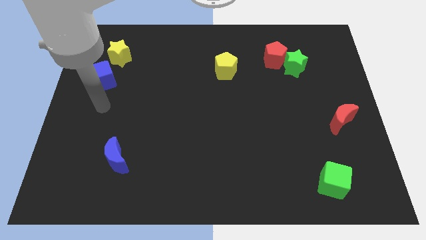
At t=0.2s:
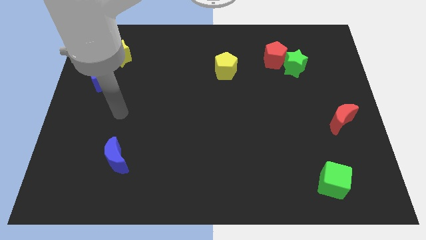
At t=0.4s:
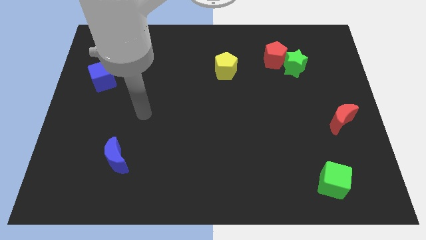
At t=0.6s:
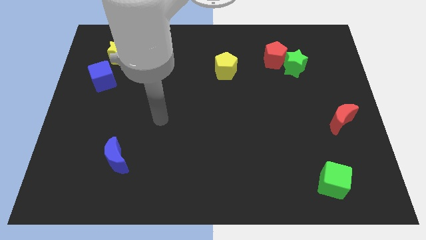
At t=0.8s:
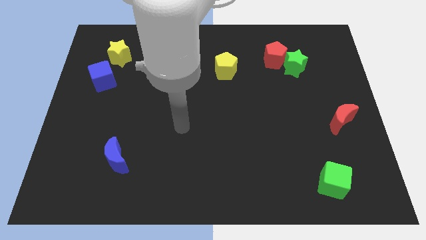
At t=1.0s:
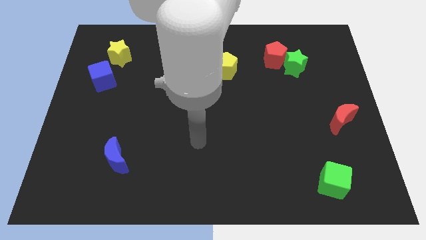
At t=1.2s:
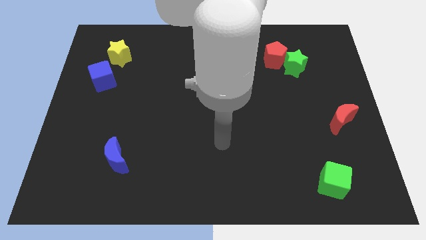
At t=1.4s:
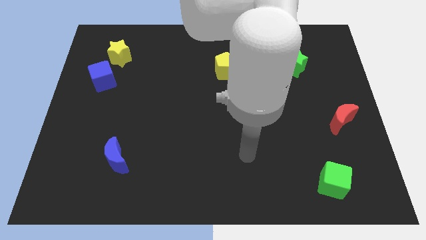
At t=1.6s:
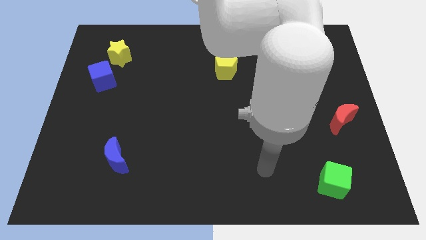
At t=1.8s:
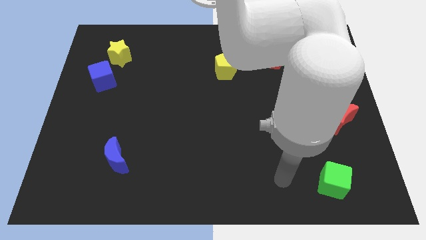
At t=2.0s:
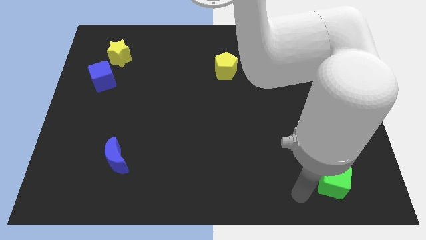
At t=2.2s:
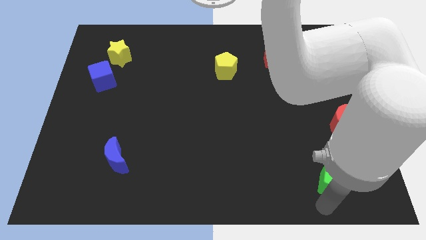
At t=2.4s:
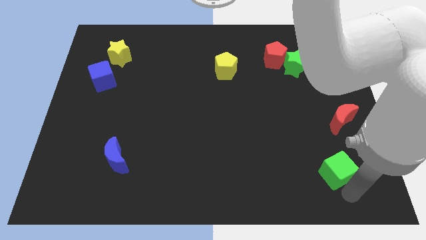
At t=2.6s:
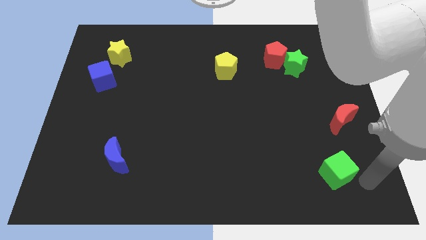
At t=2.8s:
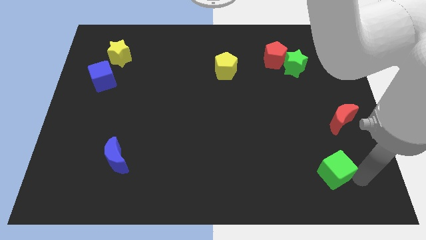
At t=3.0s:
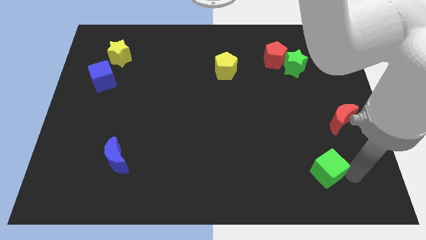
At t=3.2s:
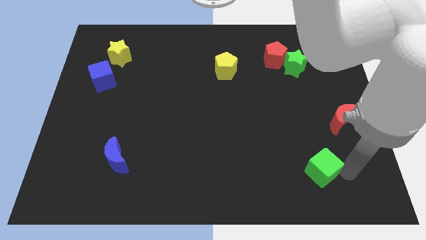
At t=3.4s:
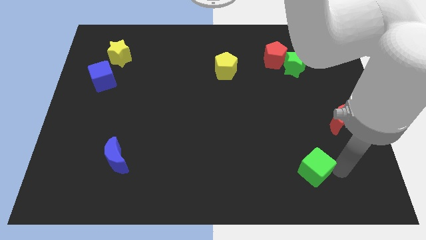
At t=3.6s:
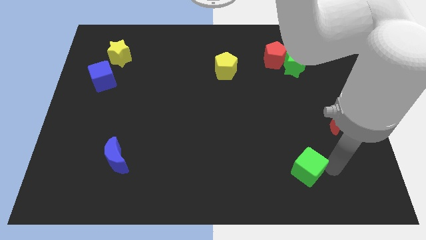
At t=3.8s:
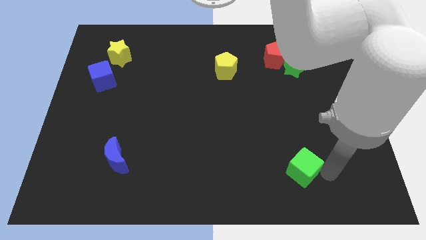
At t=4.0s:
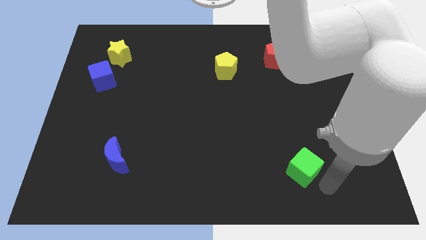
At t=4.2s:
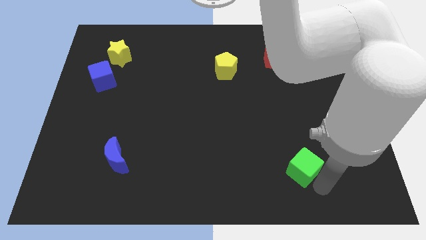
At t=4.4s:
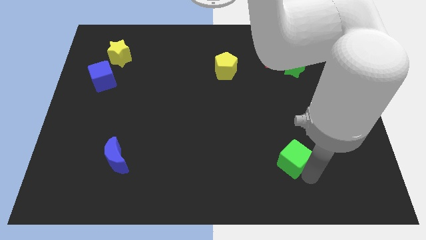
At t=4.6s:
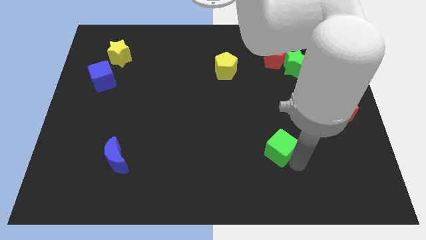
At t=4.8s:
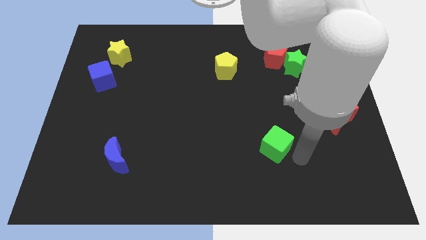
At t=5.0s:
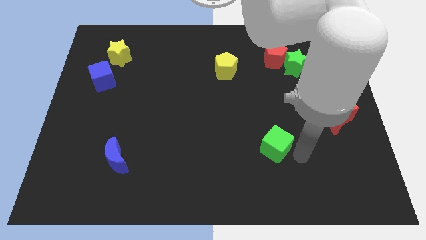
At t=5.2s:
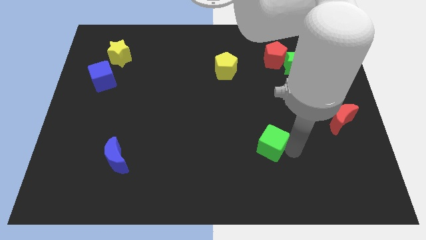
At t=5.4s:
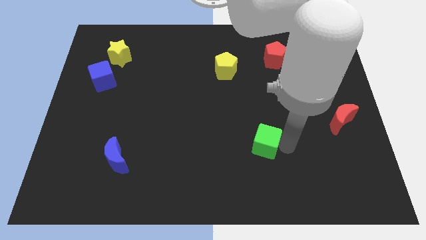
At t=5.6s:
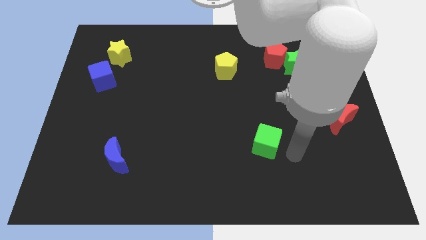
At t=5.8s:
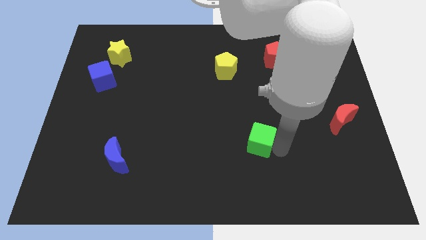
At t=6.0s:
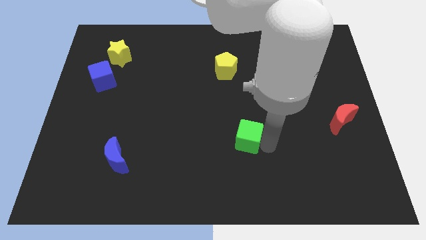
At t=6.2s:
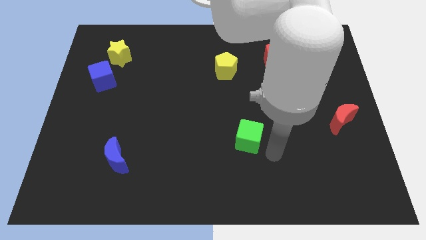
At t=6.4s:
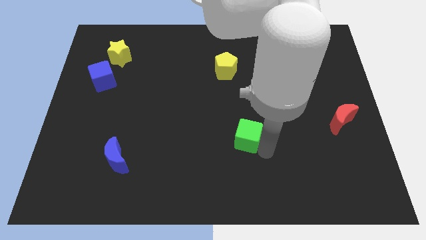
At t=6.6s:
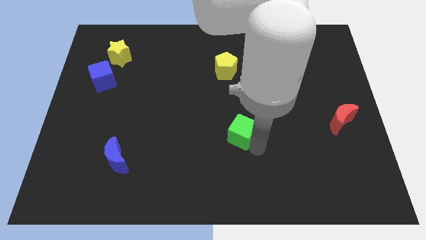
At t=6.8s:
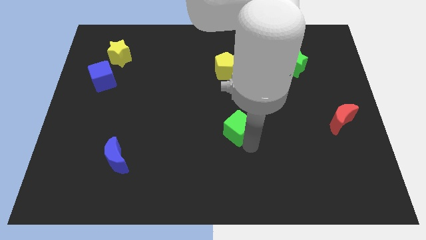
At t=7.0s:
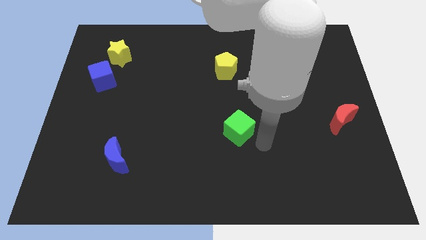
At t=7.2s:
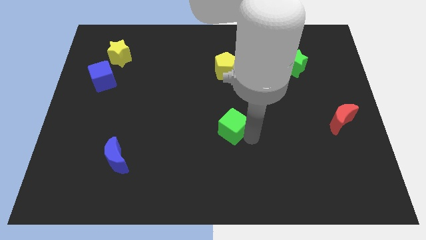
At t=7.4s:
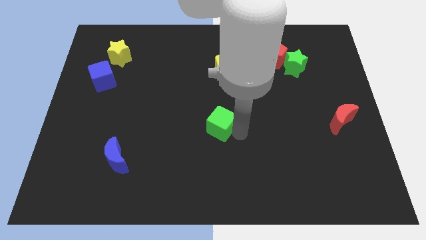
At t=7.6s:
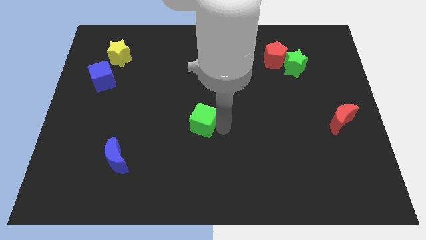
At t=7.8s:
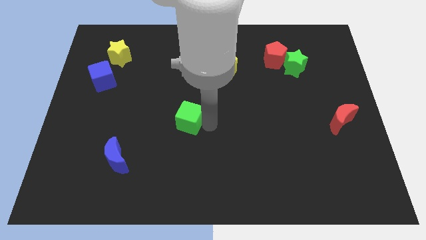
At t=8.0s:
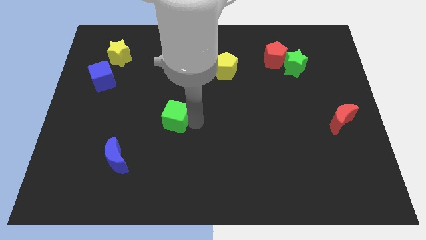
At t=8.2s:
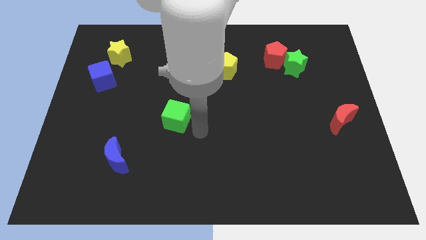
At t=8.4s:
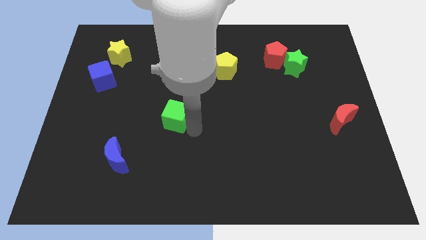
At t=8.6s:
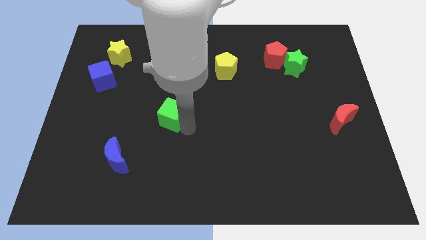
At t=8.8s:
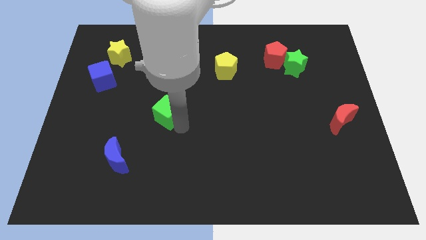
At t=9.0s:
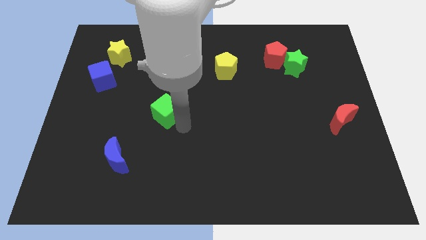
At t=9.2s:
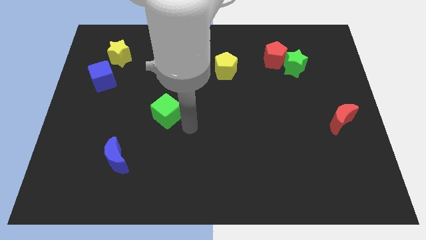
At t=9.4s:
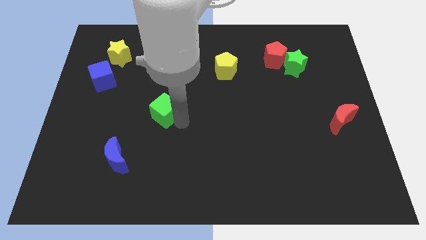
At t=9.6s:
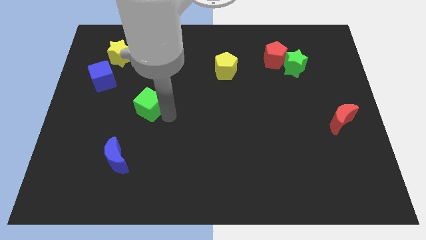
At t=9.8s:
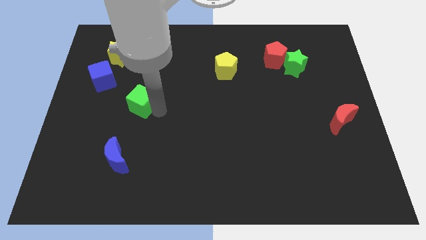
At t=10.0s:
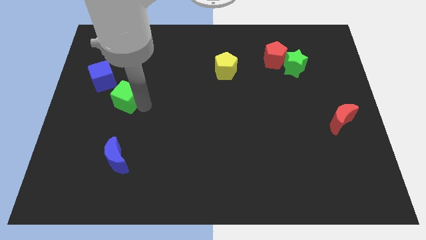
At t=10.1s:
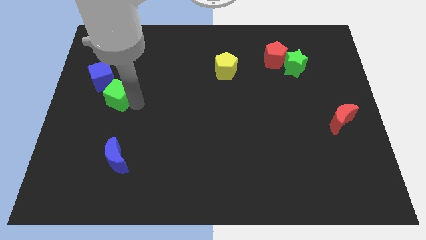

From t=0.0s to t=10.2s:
push the green cube below the yellow star

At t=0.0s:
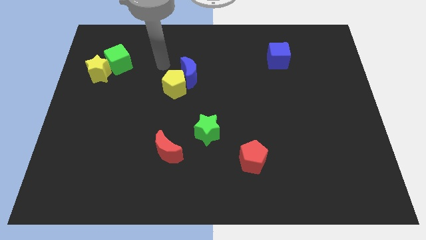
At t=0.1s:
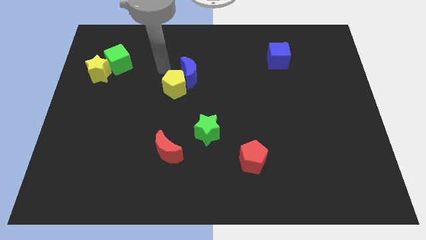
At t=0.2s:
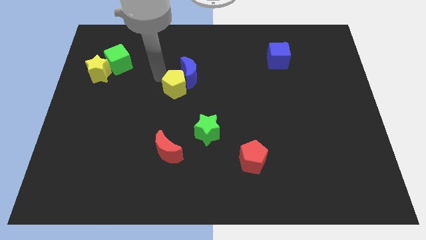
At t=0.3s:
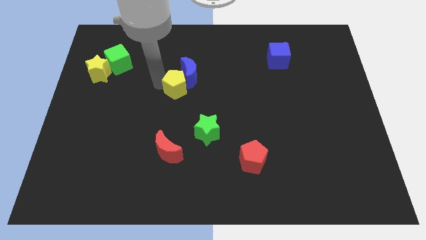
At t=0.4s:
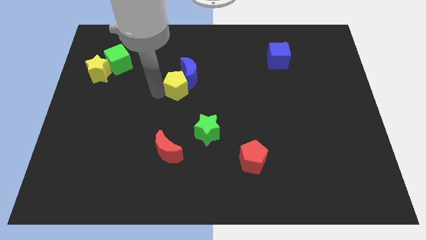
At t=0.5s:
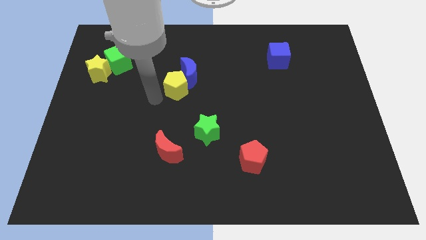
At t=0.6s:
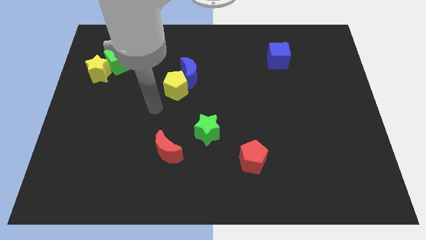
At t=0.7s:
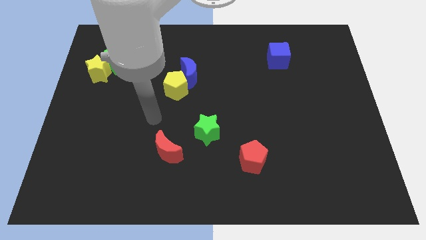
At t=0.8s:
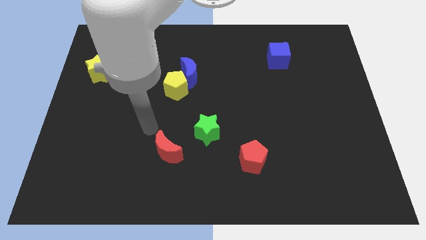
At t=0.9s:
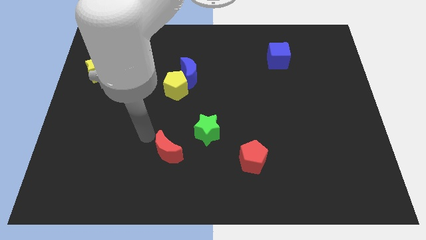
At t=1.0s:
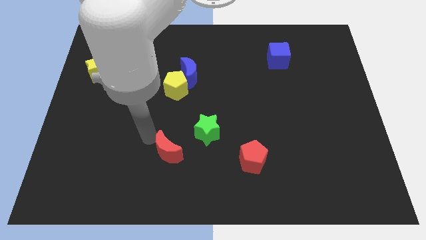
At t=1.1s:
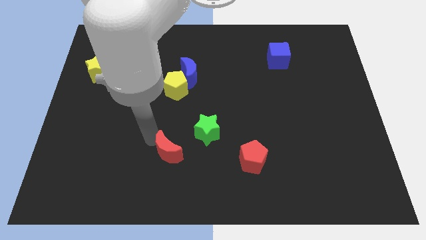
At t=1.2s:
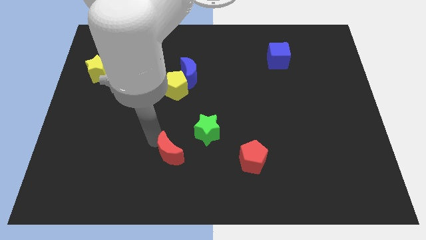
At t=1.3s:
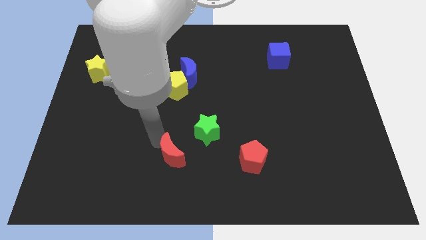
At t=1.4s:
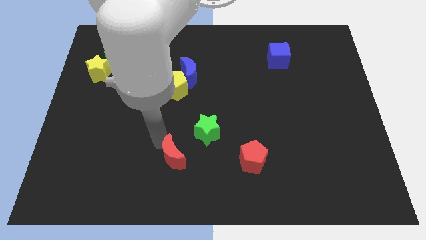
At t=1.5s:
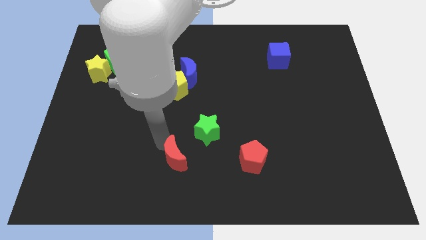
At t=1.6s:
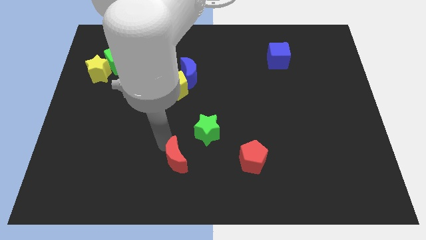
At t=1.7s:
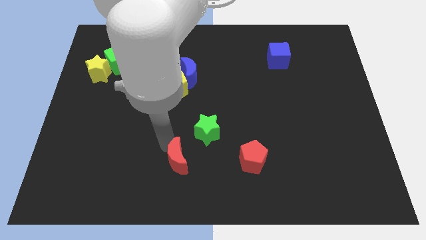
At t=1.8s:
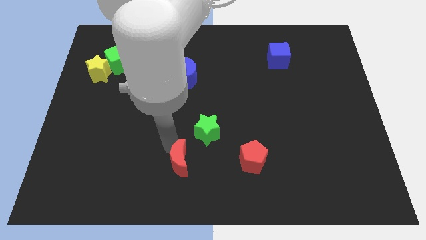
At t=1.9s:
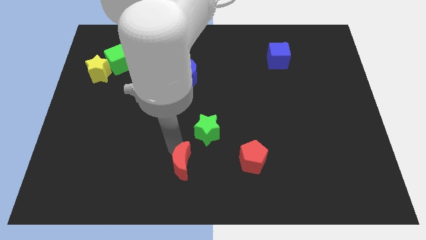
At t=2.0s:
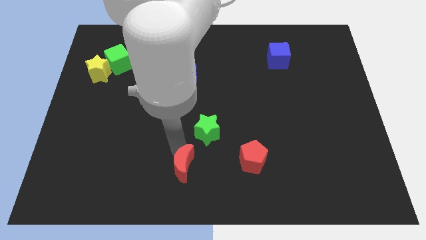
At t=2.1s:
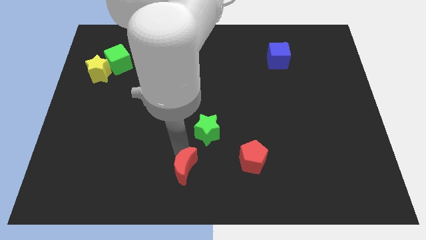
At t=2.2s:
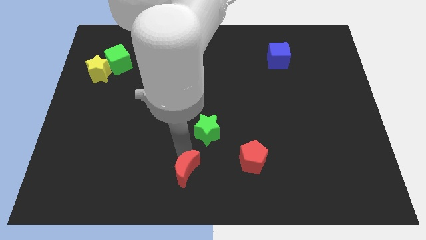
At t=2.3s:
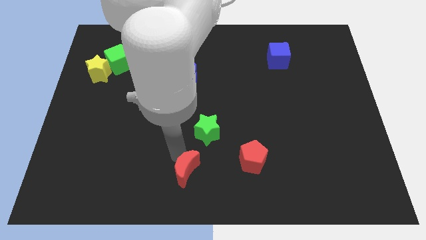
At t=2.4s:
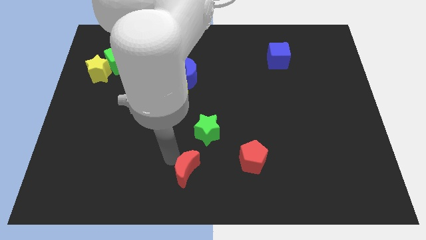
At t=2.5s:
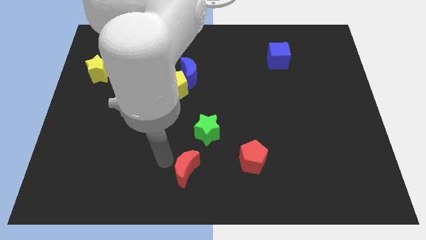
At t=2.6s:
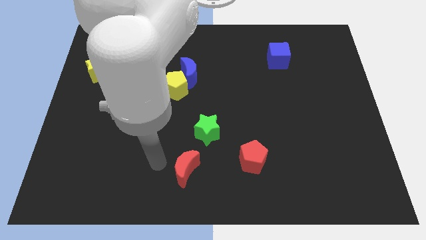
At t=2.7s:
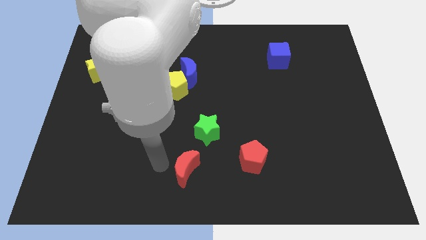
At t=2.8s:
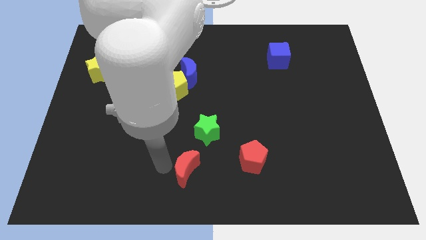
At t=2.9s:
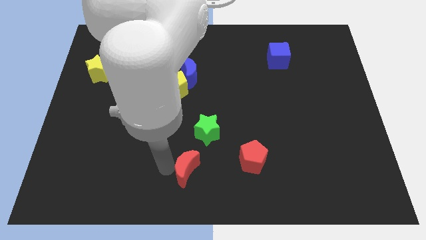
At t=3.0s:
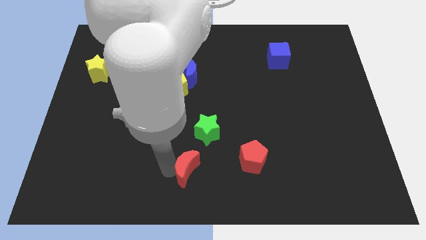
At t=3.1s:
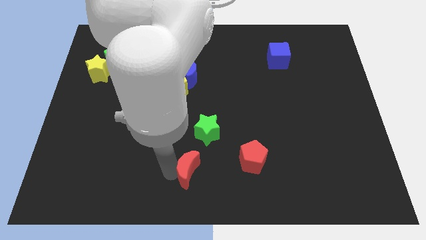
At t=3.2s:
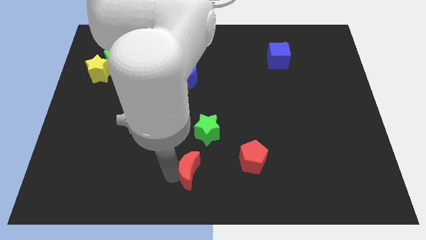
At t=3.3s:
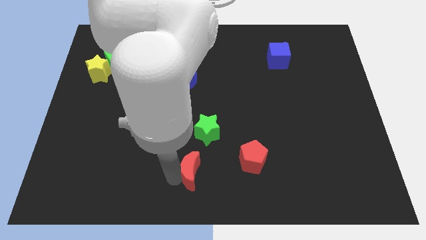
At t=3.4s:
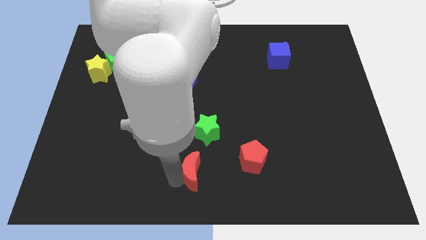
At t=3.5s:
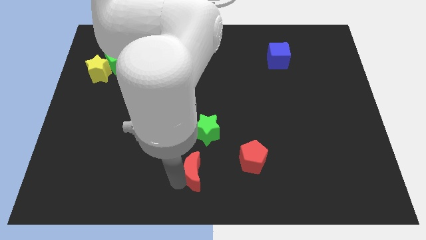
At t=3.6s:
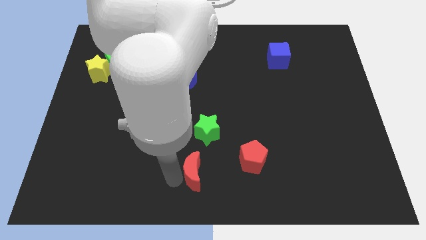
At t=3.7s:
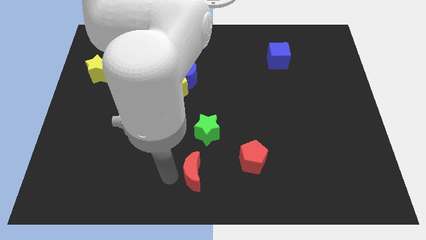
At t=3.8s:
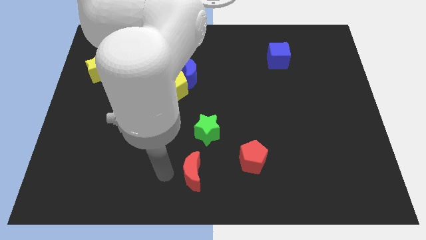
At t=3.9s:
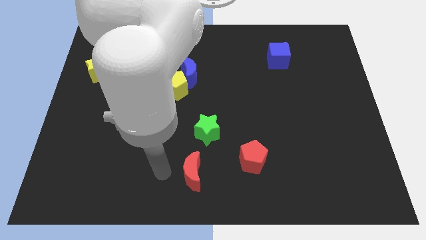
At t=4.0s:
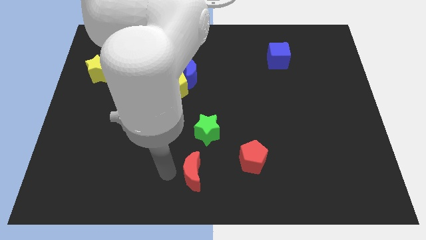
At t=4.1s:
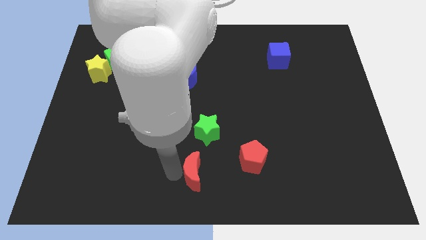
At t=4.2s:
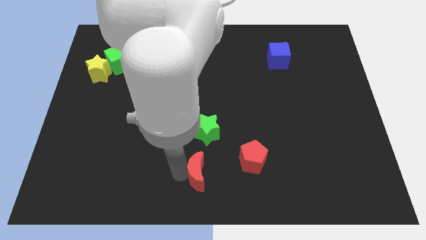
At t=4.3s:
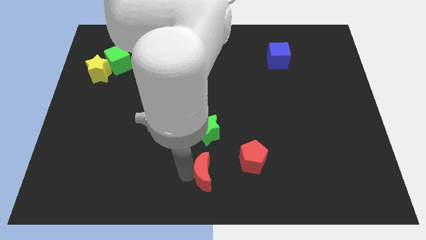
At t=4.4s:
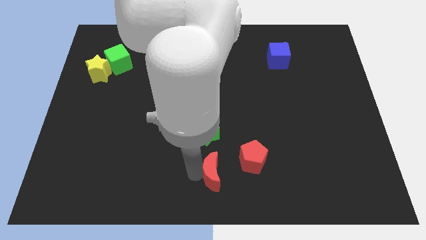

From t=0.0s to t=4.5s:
slide the red moon to the bottom left side of the red pentagon
